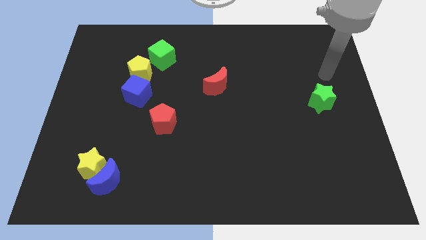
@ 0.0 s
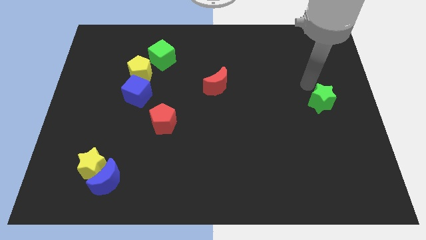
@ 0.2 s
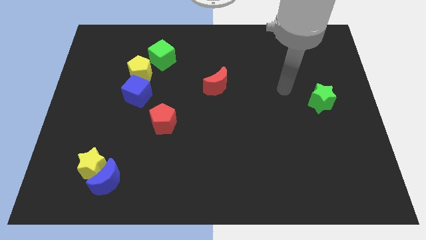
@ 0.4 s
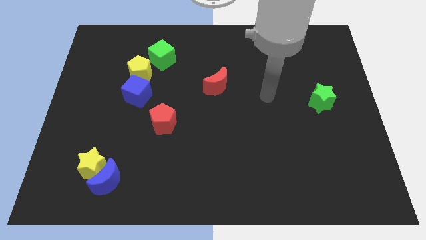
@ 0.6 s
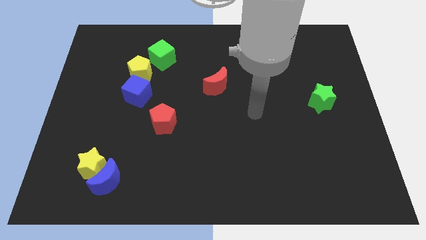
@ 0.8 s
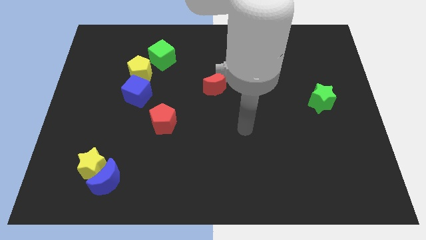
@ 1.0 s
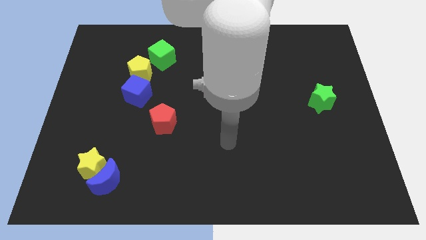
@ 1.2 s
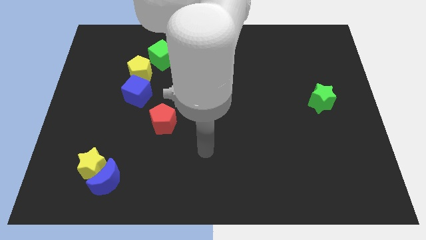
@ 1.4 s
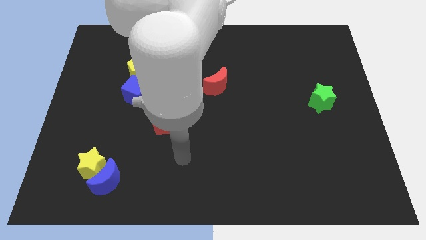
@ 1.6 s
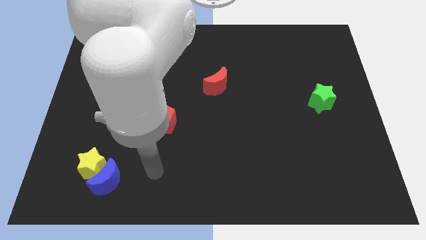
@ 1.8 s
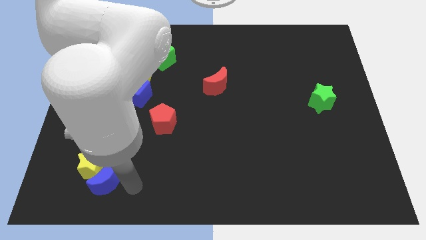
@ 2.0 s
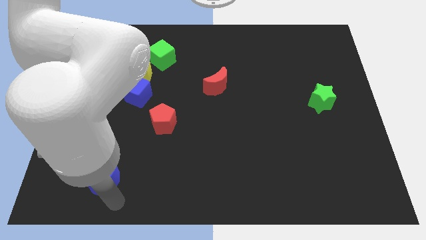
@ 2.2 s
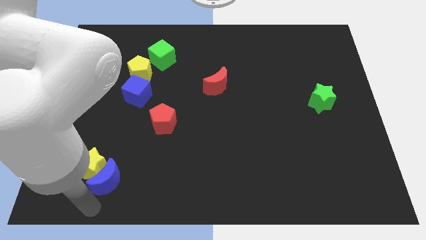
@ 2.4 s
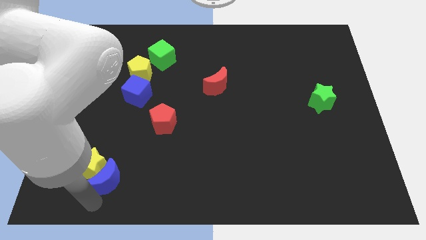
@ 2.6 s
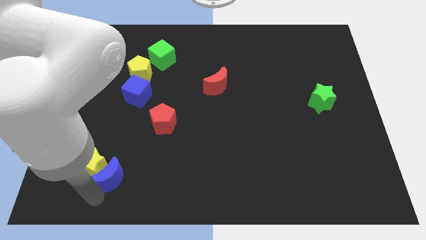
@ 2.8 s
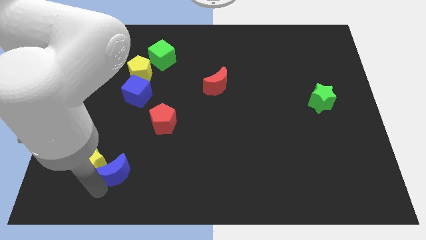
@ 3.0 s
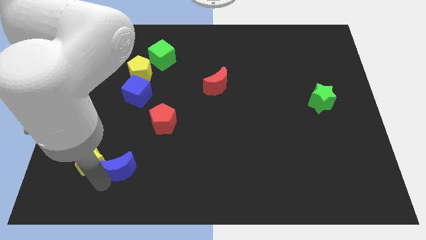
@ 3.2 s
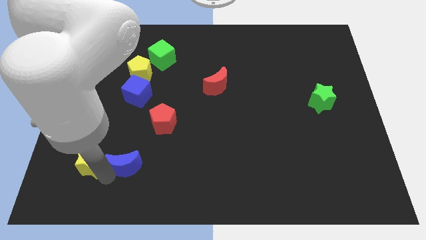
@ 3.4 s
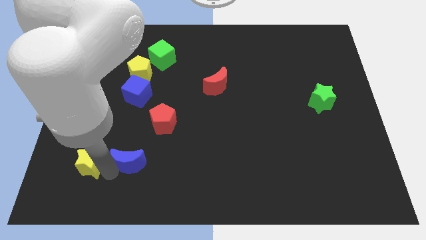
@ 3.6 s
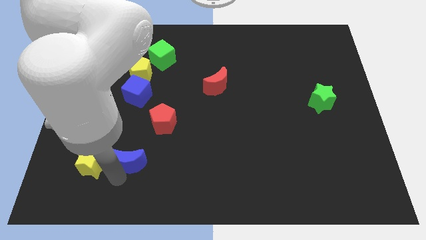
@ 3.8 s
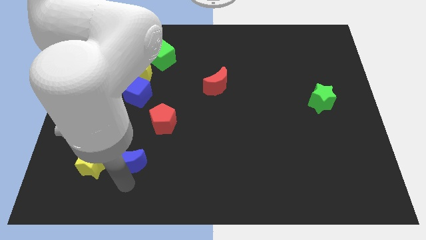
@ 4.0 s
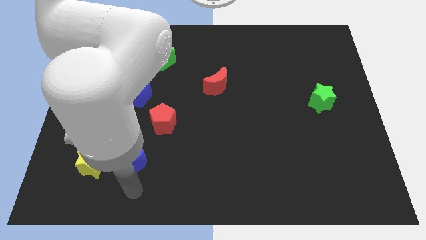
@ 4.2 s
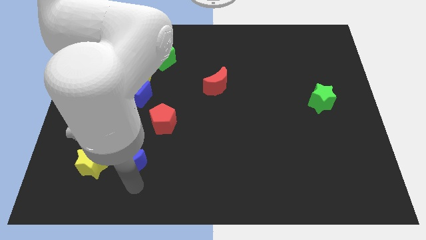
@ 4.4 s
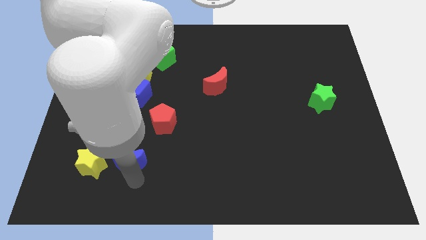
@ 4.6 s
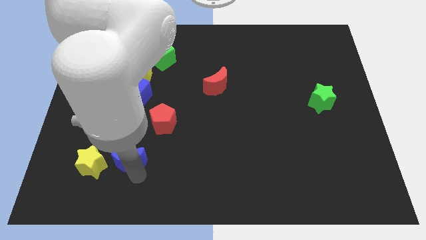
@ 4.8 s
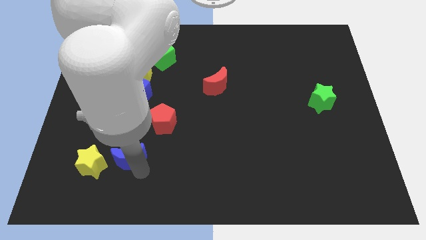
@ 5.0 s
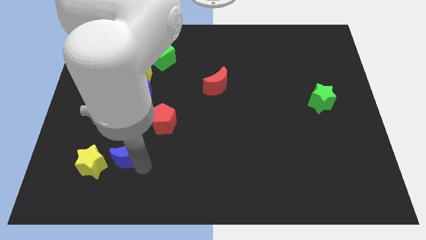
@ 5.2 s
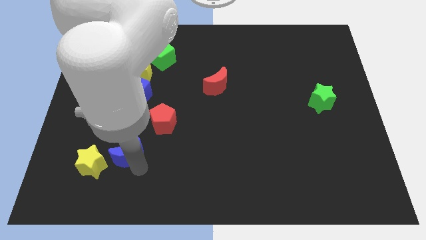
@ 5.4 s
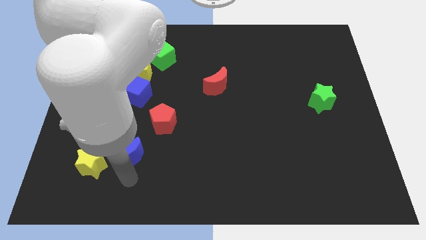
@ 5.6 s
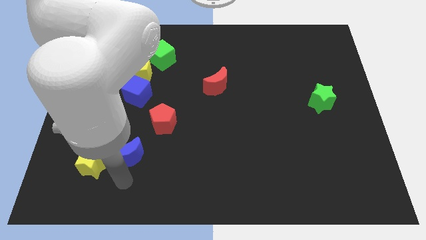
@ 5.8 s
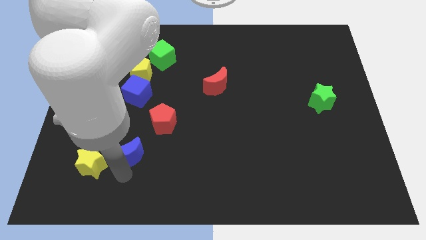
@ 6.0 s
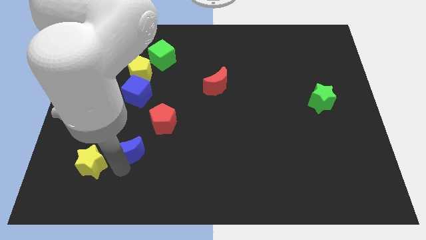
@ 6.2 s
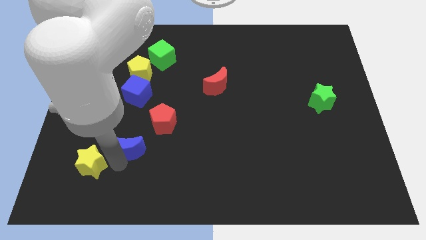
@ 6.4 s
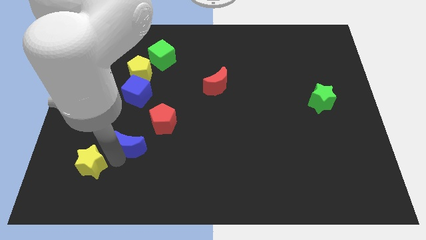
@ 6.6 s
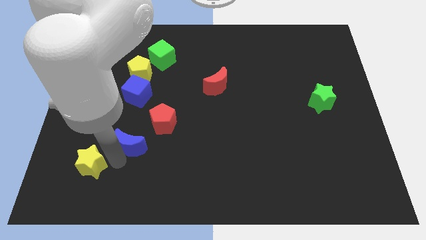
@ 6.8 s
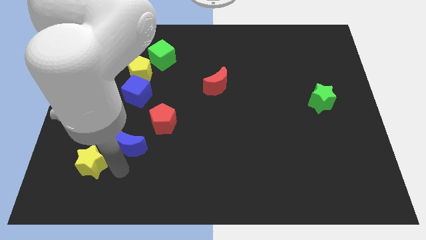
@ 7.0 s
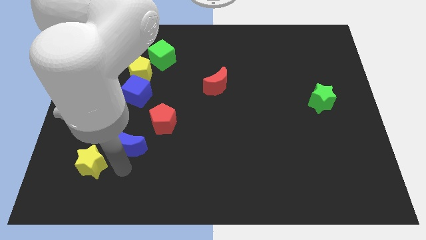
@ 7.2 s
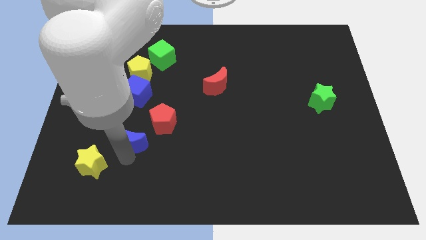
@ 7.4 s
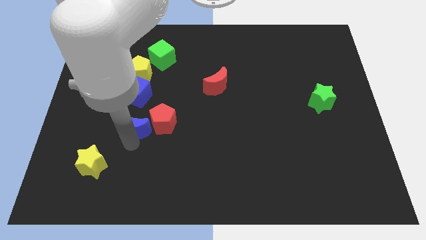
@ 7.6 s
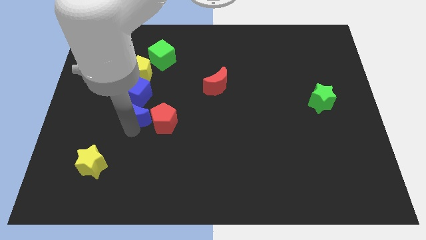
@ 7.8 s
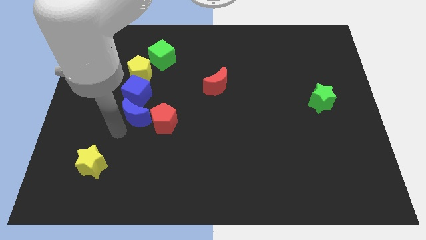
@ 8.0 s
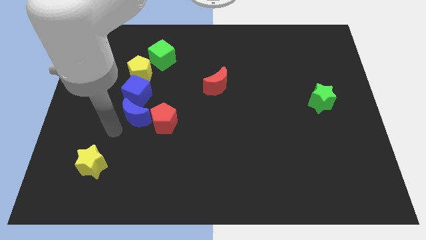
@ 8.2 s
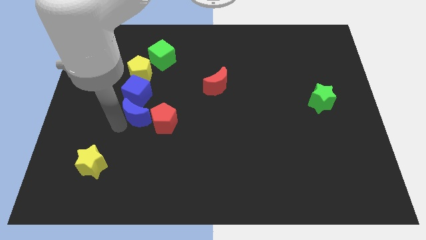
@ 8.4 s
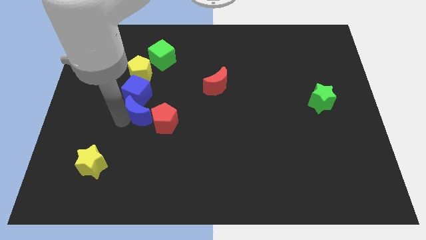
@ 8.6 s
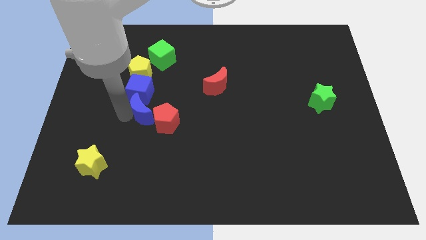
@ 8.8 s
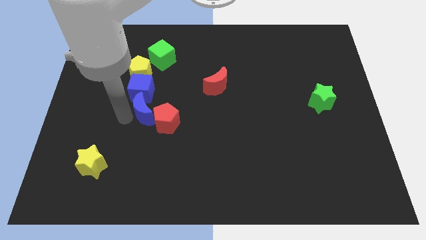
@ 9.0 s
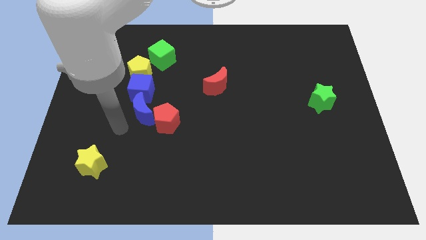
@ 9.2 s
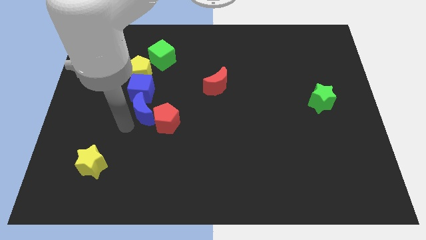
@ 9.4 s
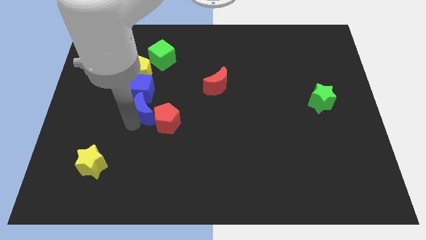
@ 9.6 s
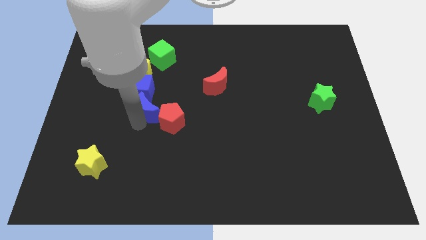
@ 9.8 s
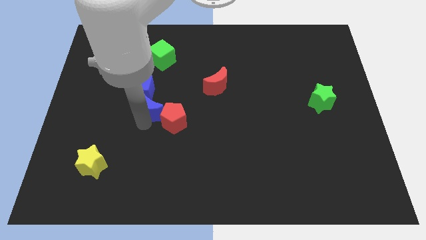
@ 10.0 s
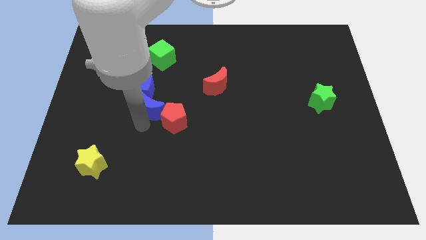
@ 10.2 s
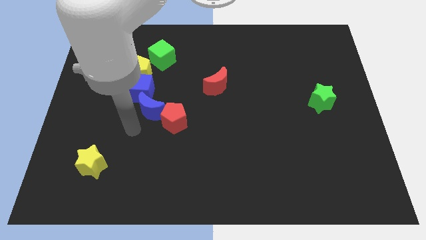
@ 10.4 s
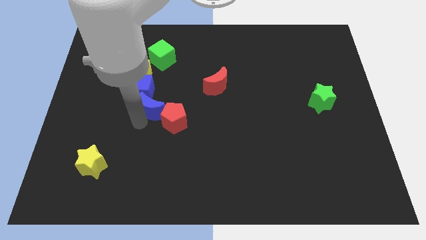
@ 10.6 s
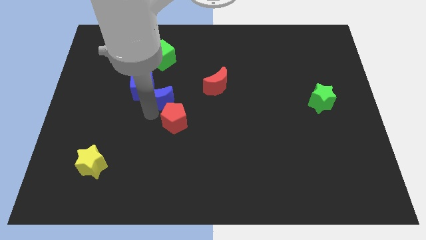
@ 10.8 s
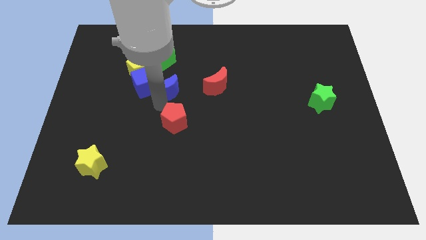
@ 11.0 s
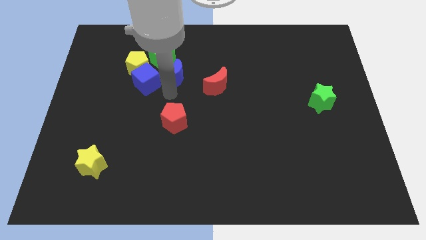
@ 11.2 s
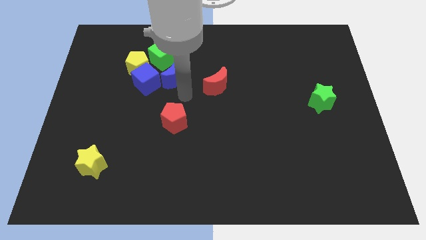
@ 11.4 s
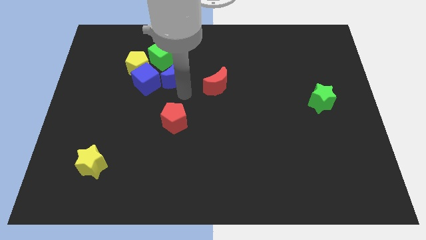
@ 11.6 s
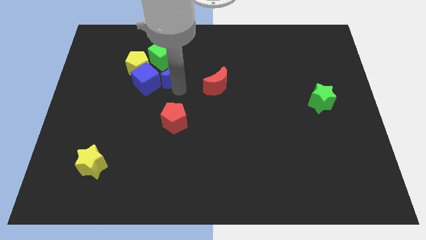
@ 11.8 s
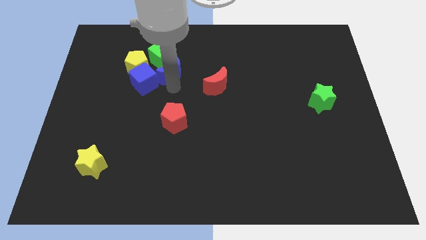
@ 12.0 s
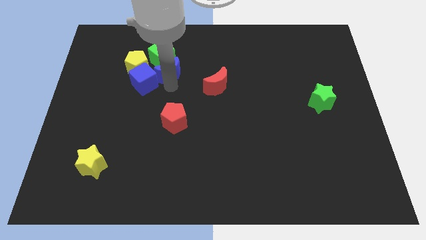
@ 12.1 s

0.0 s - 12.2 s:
move the blue moon close to the green cube
